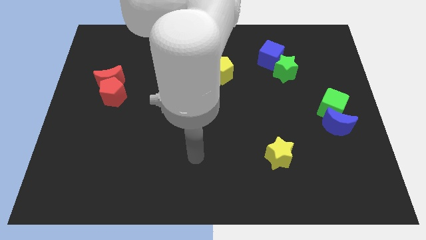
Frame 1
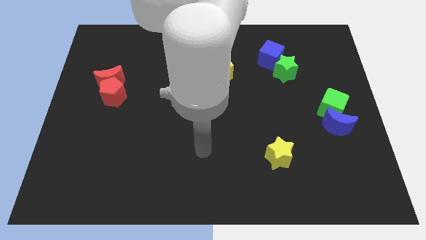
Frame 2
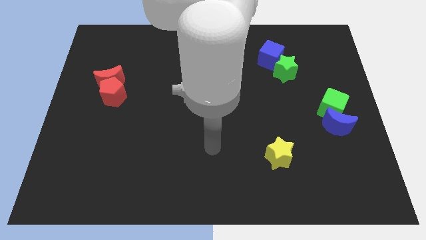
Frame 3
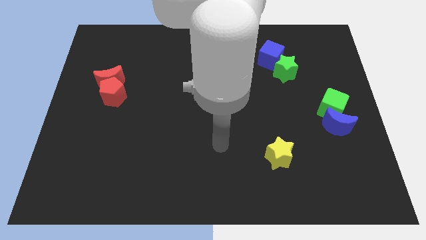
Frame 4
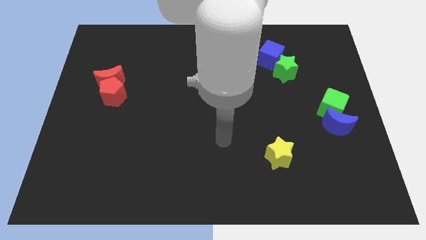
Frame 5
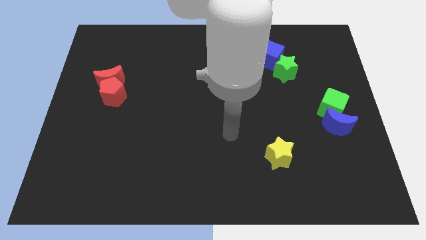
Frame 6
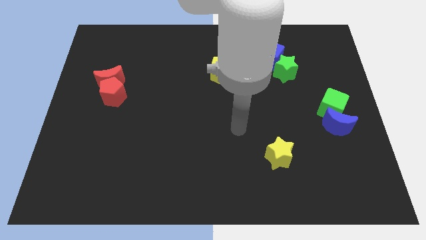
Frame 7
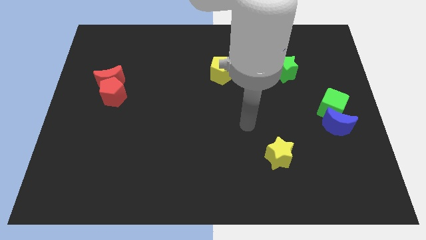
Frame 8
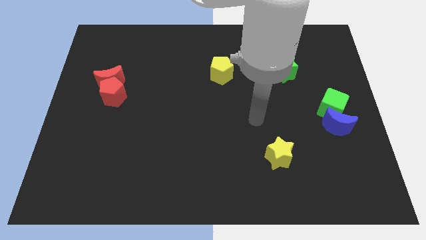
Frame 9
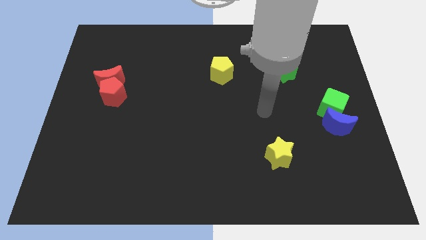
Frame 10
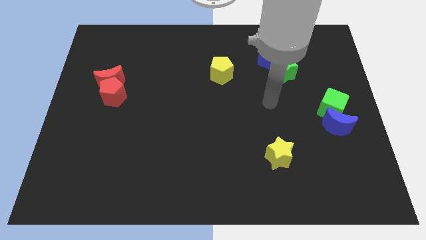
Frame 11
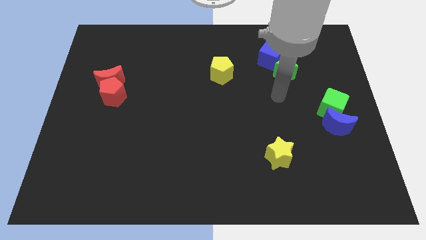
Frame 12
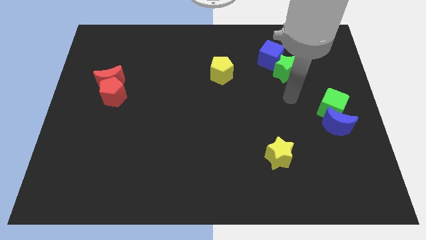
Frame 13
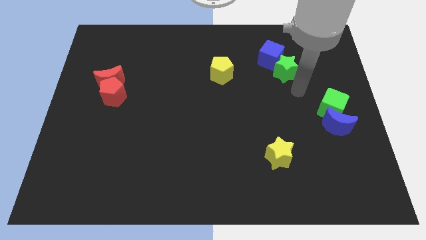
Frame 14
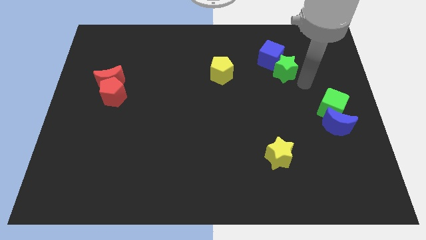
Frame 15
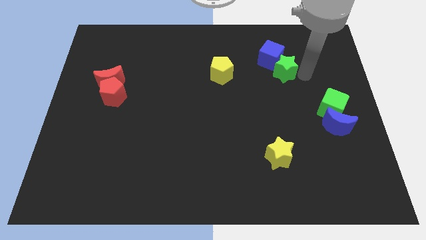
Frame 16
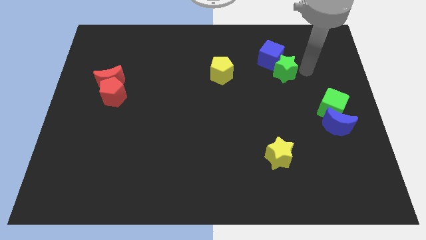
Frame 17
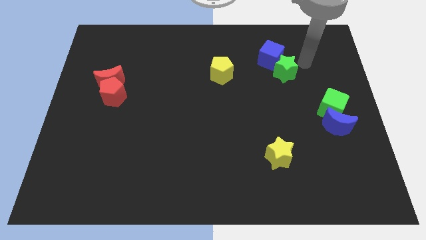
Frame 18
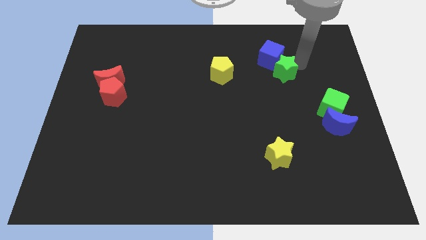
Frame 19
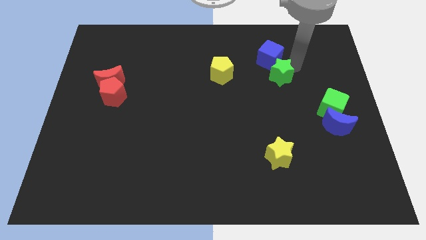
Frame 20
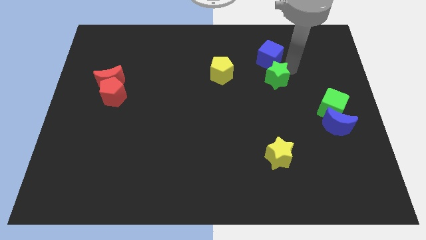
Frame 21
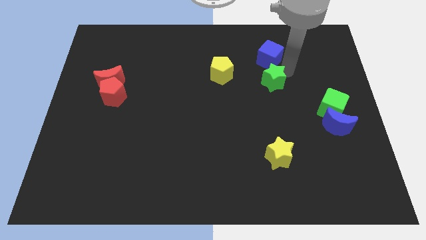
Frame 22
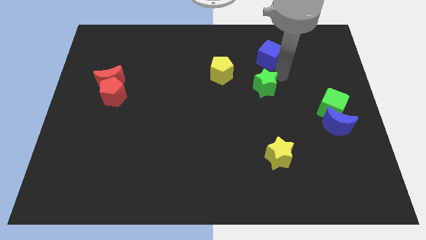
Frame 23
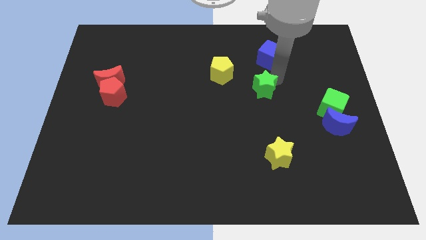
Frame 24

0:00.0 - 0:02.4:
put the green star to the bottom right side of the yellow pentagon

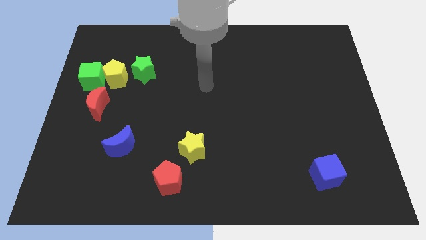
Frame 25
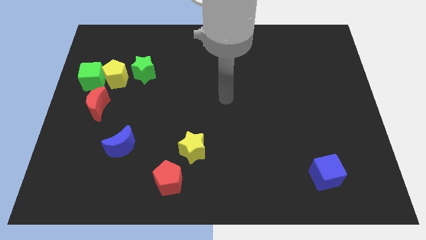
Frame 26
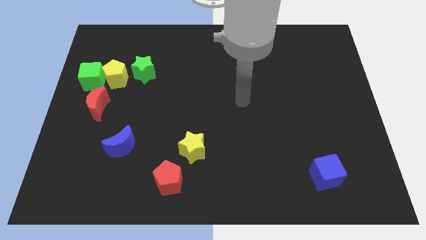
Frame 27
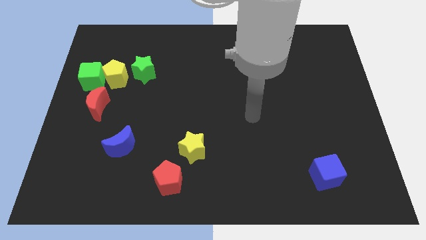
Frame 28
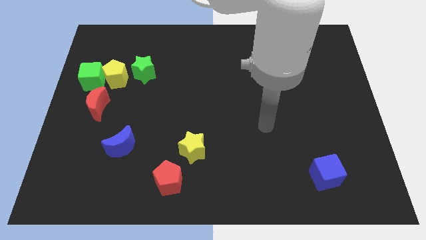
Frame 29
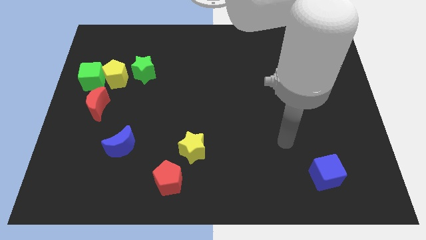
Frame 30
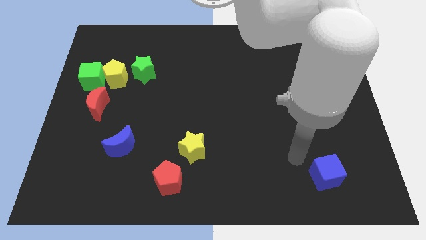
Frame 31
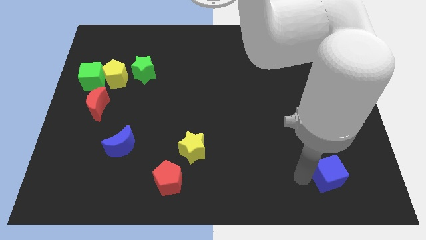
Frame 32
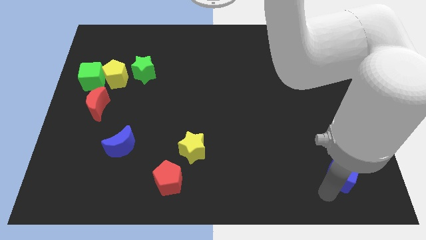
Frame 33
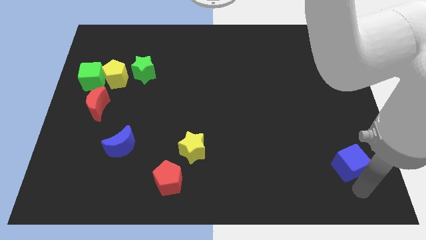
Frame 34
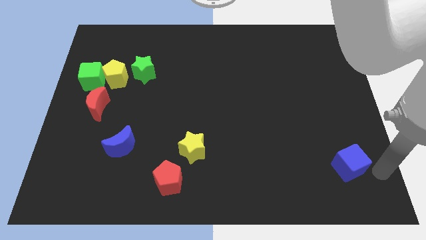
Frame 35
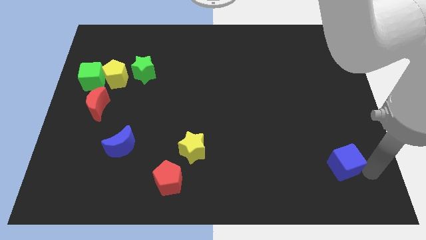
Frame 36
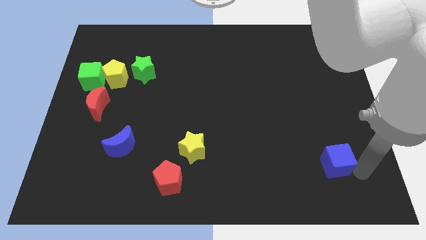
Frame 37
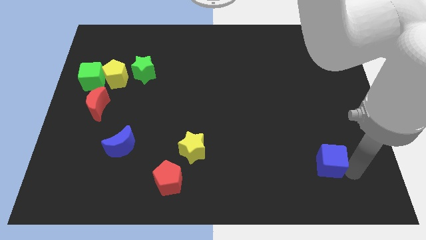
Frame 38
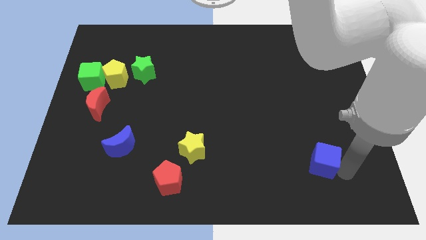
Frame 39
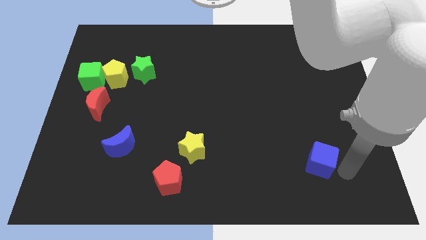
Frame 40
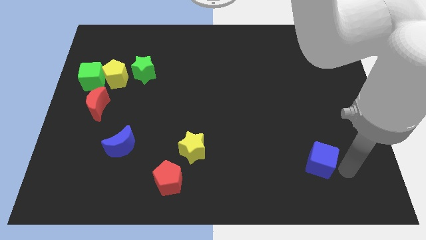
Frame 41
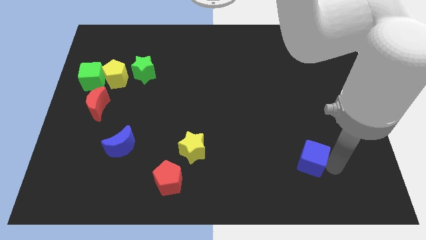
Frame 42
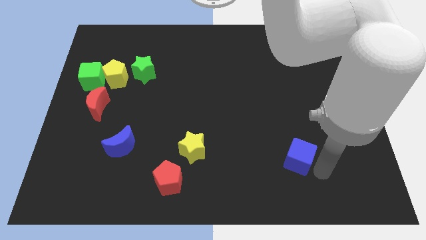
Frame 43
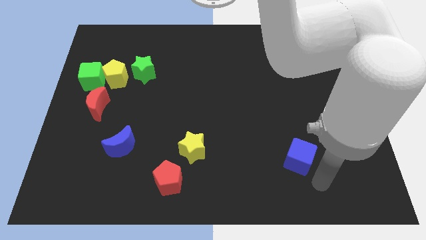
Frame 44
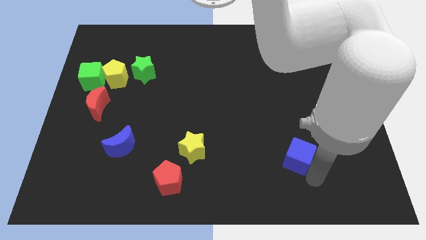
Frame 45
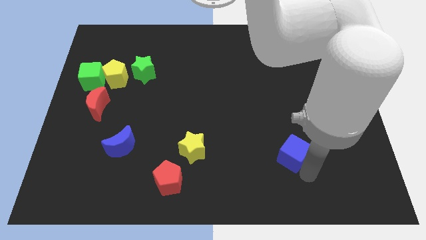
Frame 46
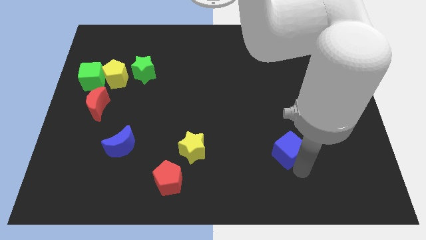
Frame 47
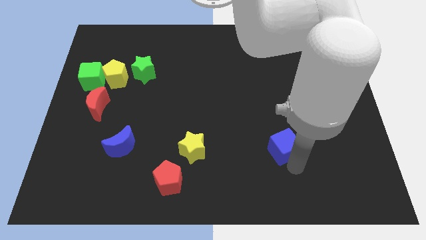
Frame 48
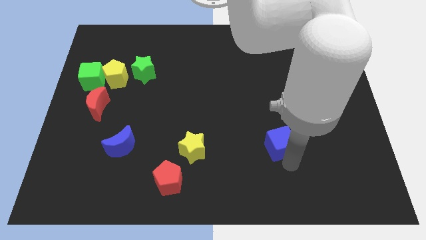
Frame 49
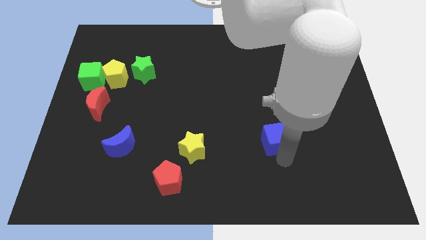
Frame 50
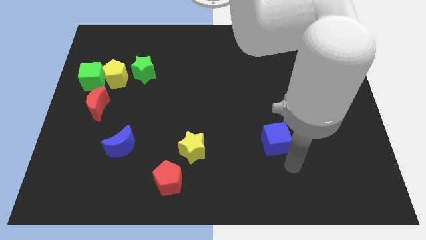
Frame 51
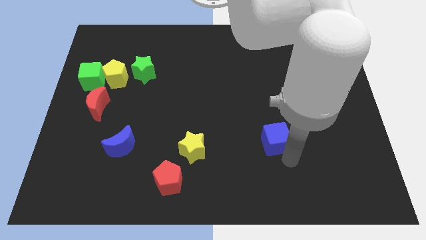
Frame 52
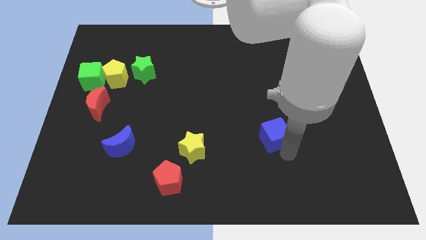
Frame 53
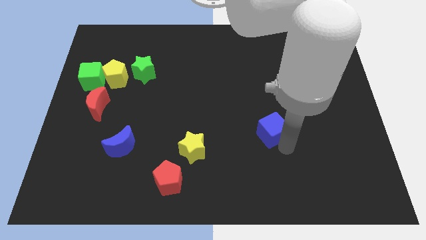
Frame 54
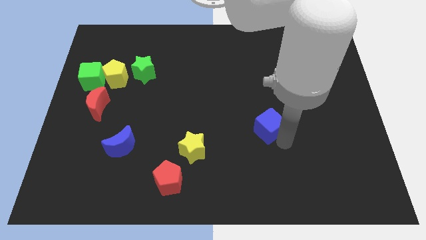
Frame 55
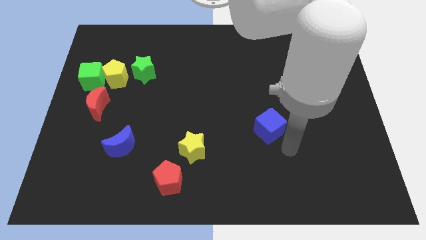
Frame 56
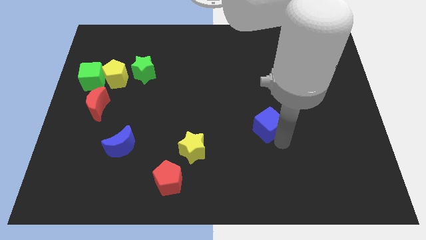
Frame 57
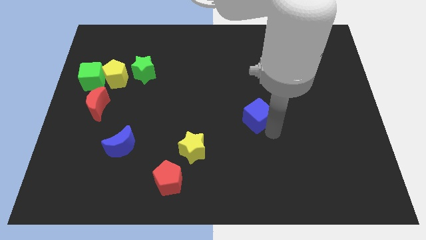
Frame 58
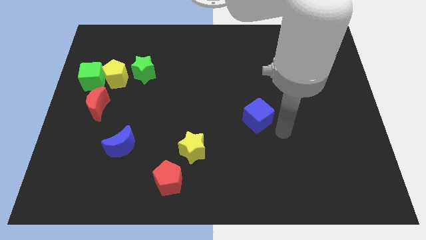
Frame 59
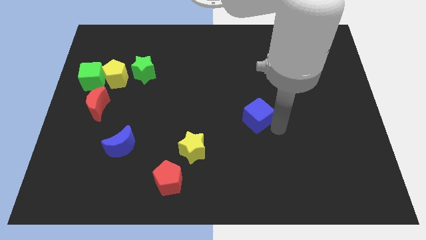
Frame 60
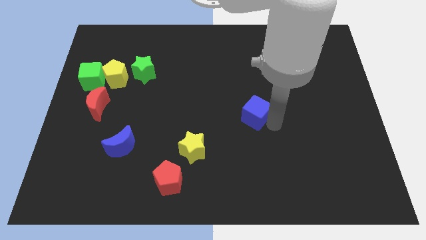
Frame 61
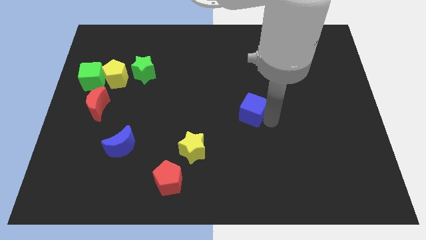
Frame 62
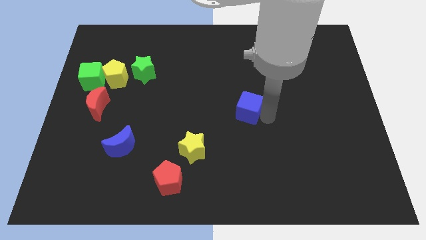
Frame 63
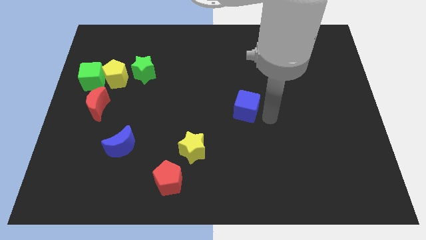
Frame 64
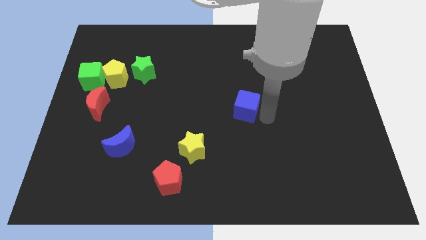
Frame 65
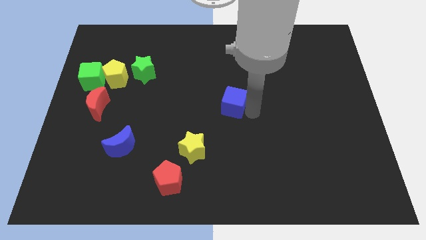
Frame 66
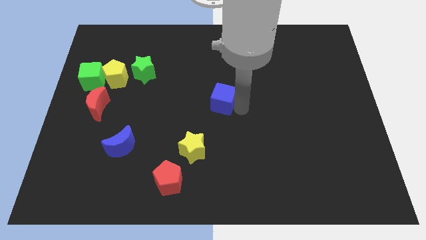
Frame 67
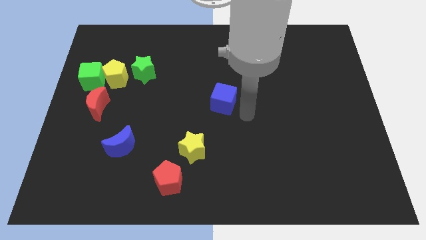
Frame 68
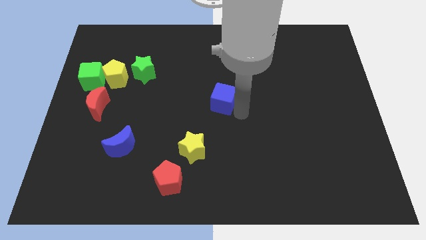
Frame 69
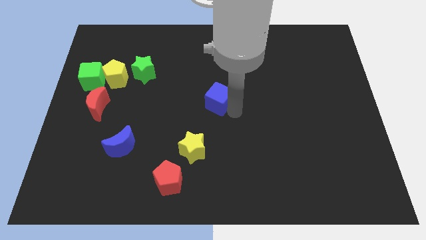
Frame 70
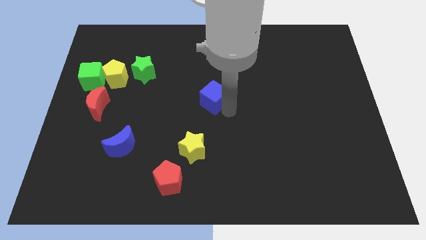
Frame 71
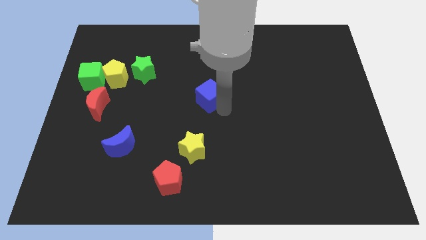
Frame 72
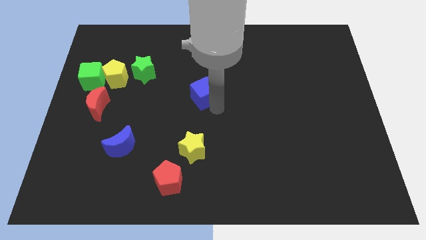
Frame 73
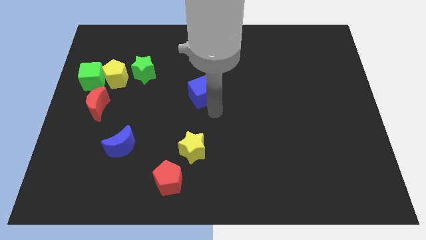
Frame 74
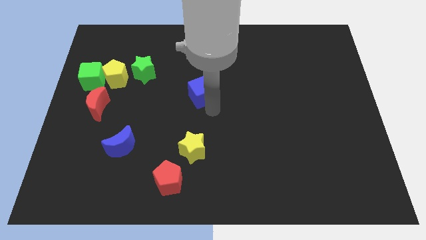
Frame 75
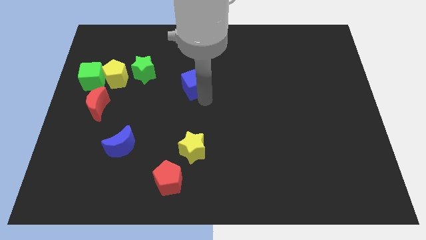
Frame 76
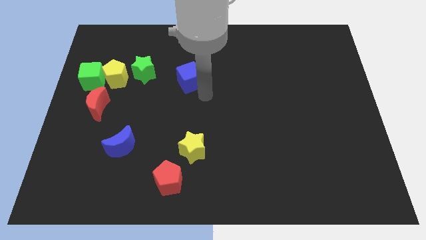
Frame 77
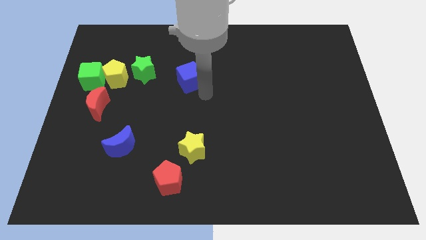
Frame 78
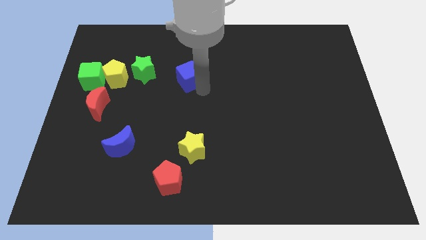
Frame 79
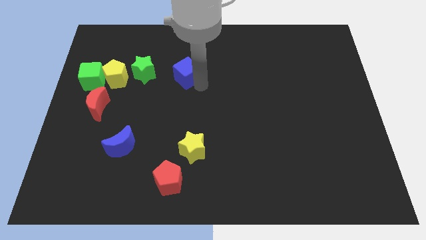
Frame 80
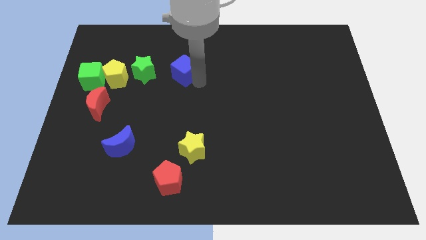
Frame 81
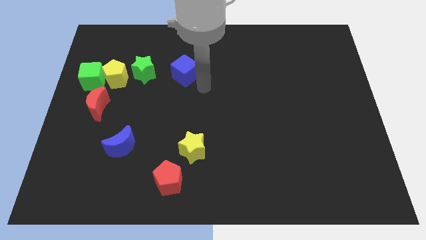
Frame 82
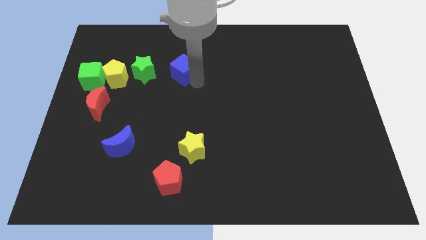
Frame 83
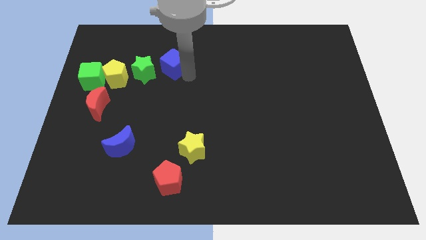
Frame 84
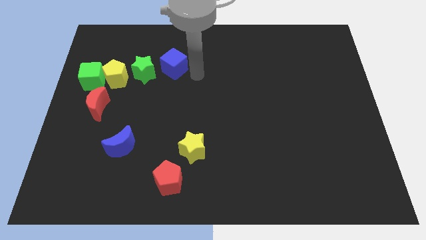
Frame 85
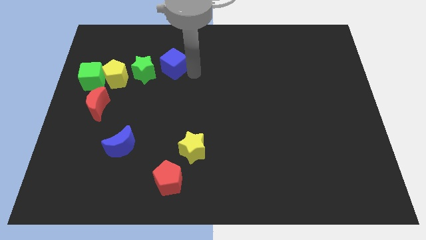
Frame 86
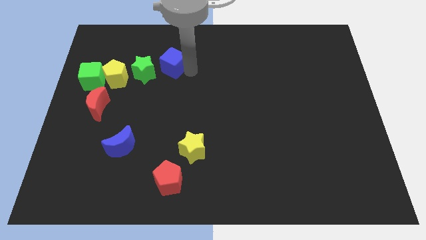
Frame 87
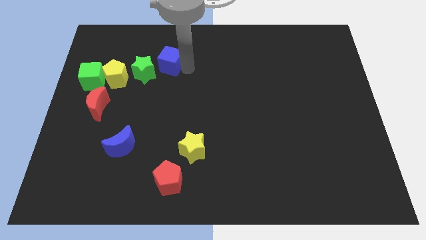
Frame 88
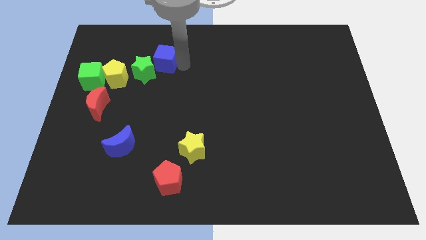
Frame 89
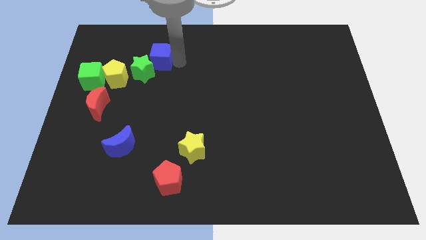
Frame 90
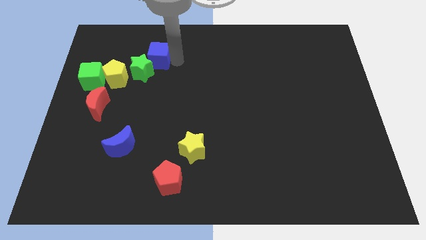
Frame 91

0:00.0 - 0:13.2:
slide the blue cube diagonally up and to the right of the yellow pentagon
